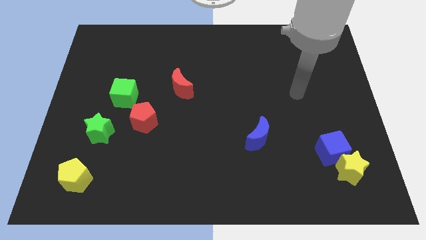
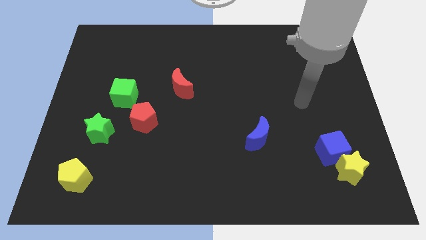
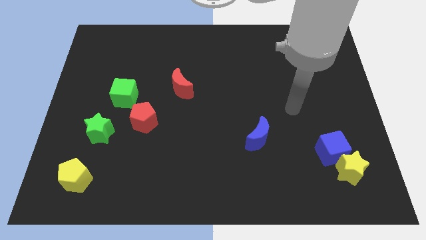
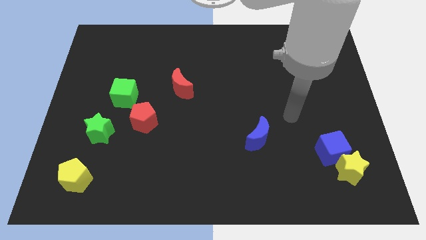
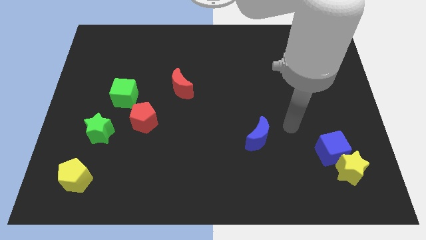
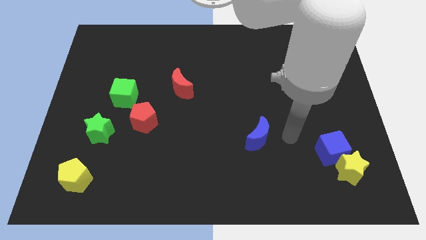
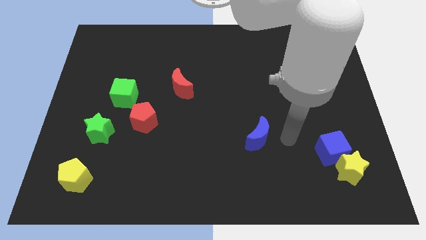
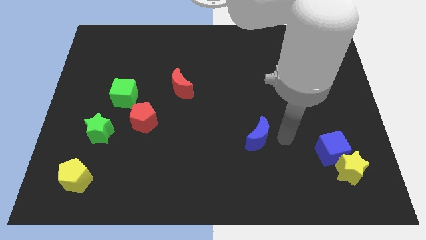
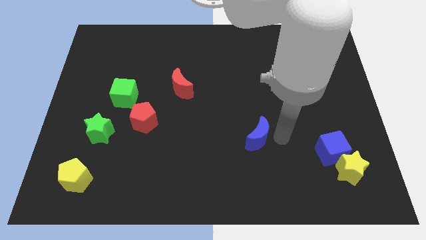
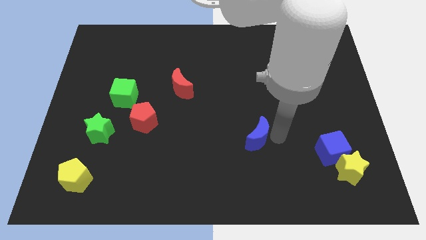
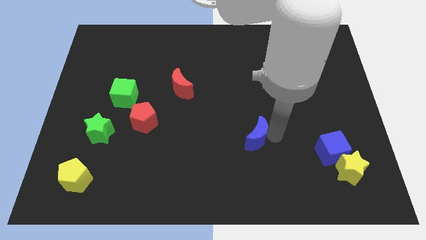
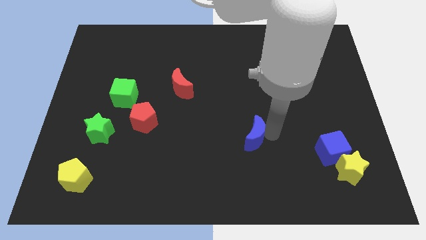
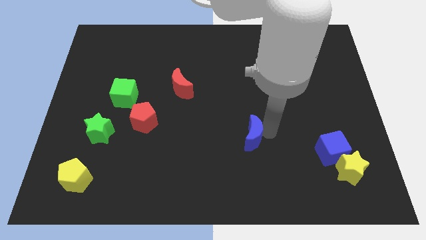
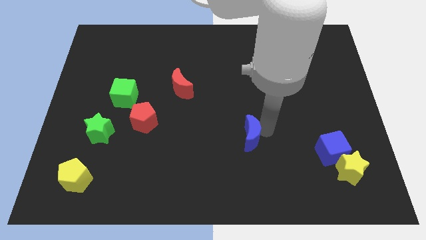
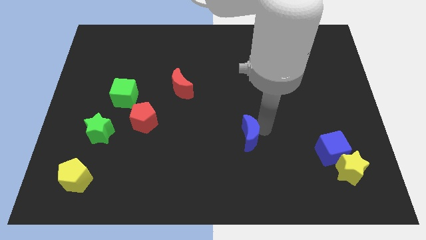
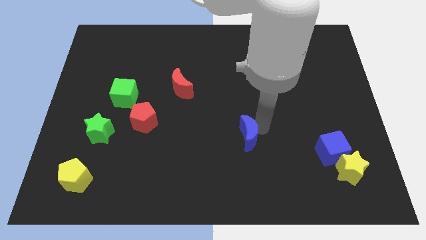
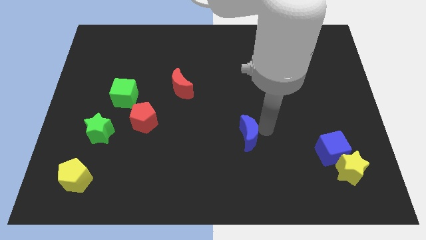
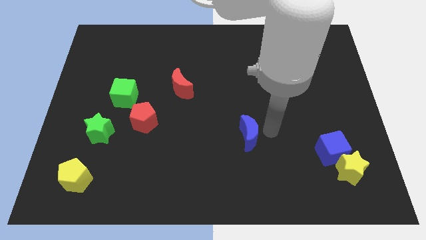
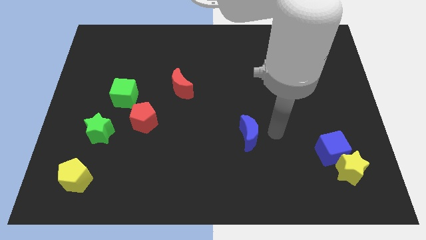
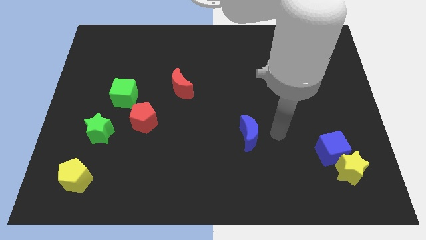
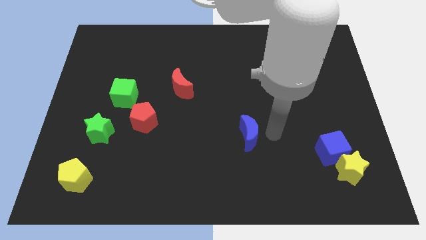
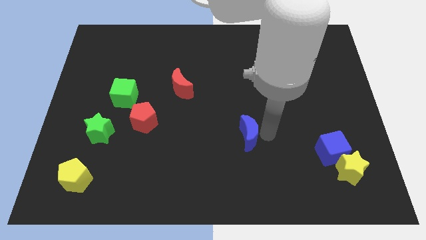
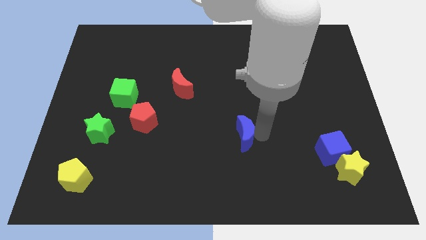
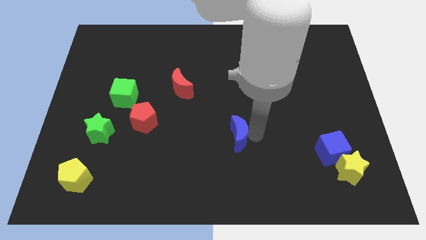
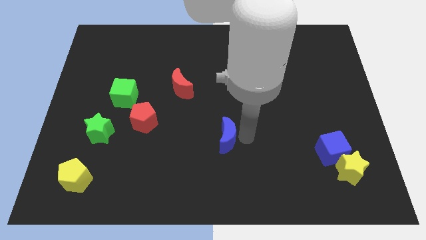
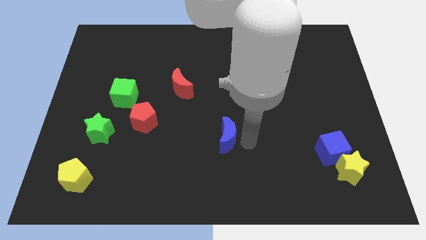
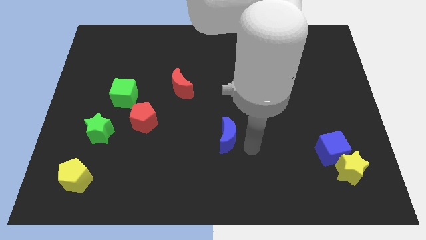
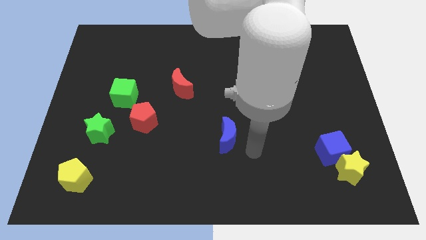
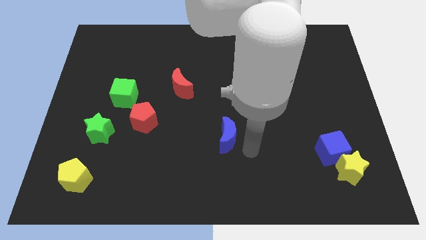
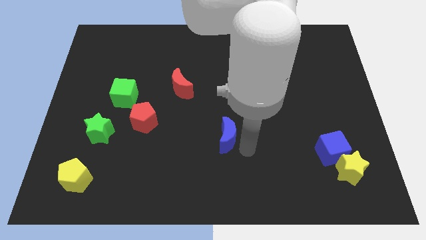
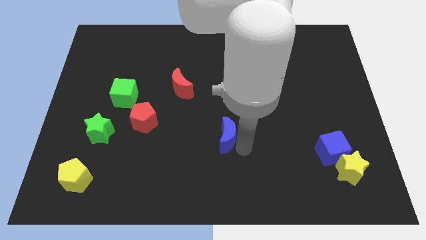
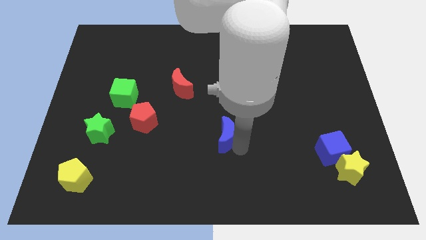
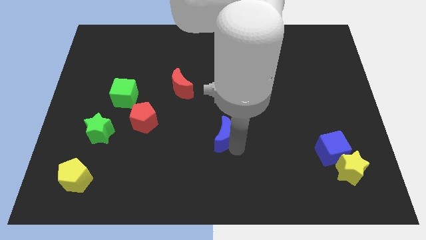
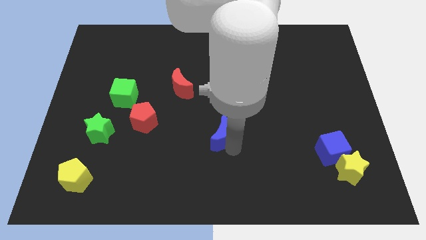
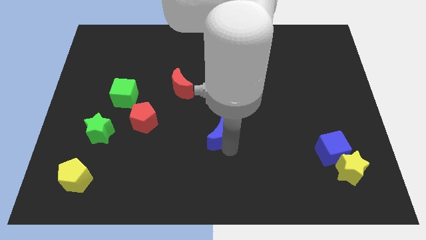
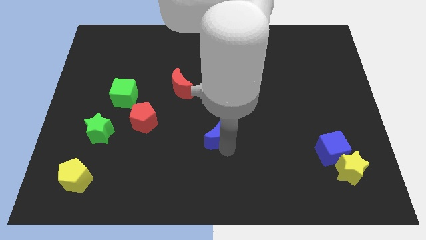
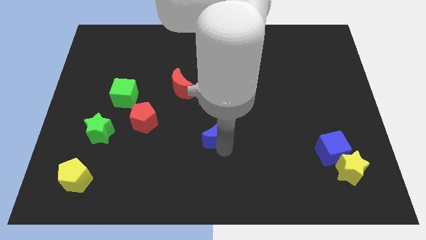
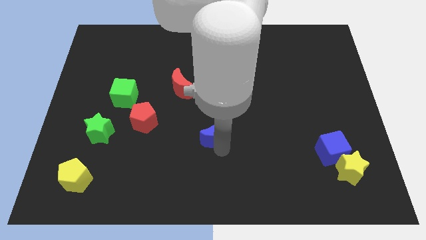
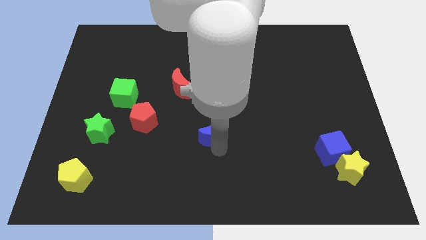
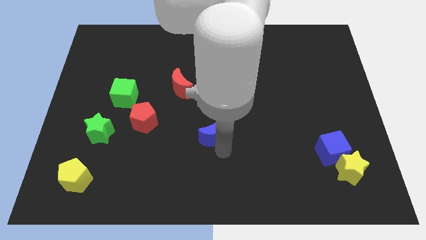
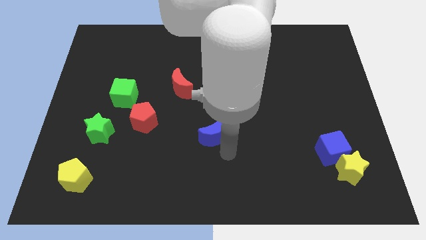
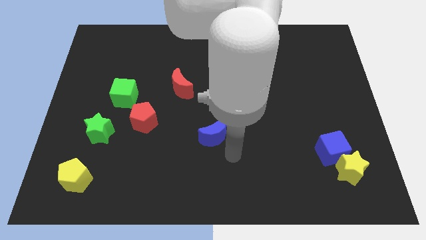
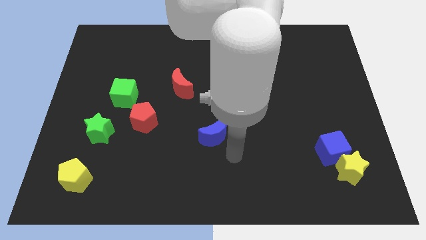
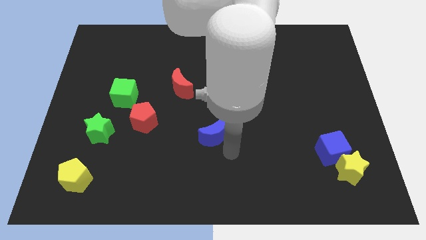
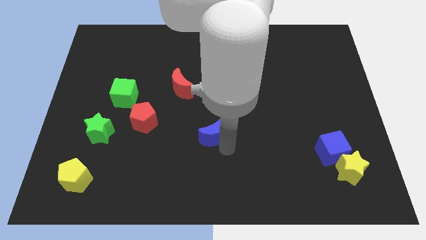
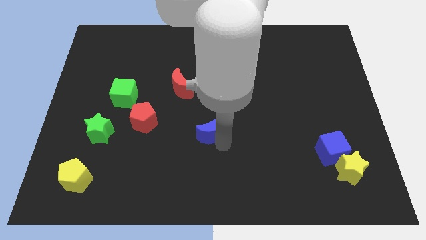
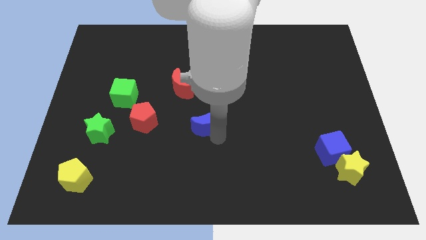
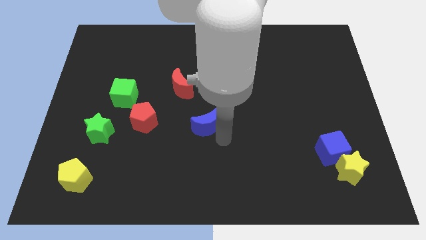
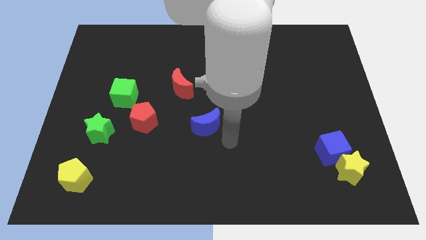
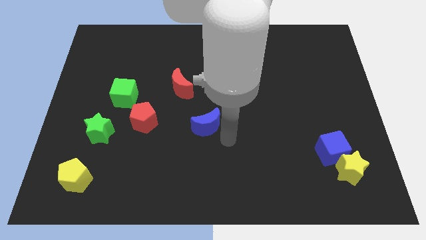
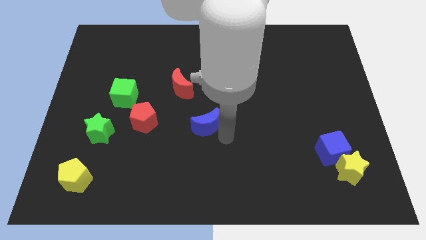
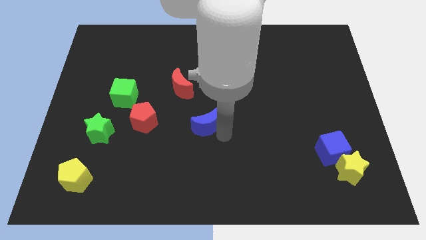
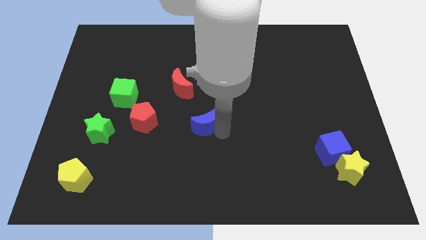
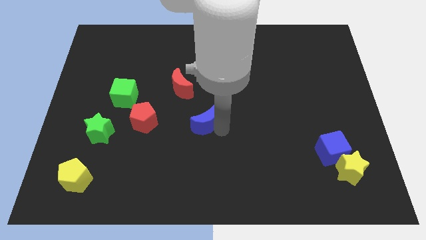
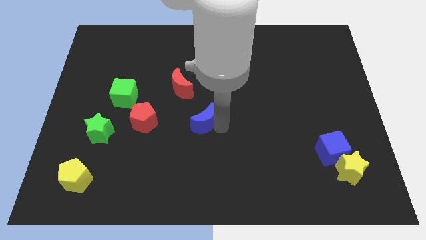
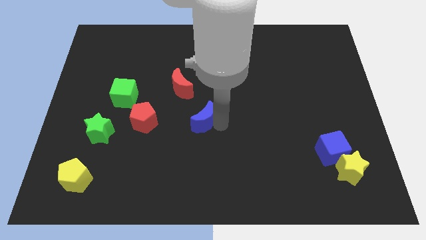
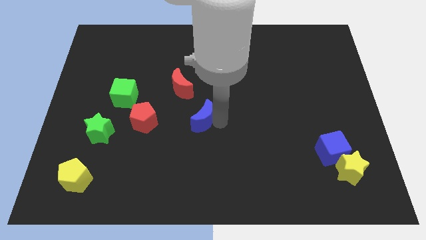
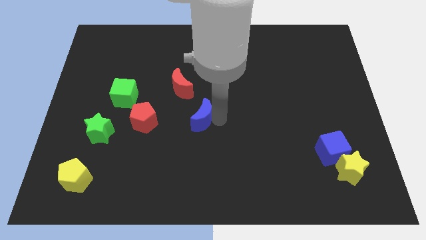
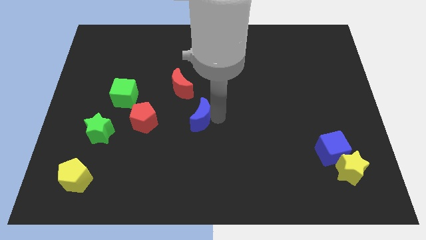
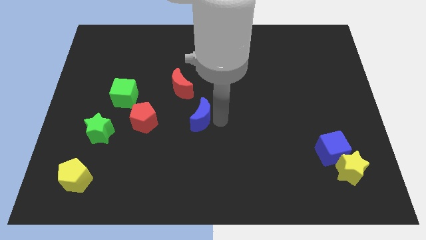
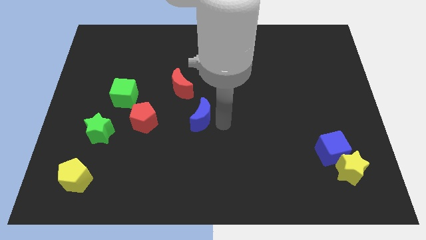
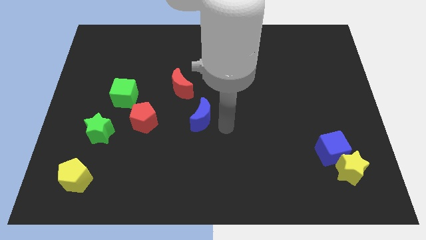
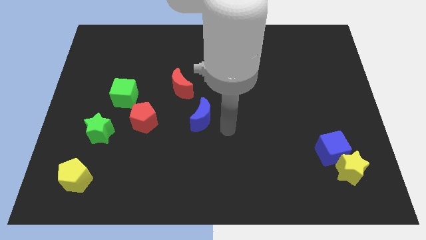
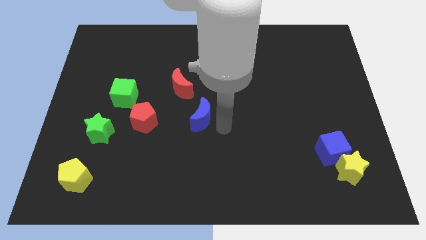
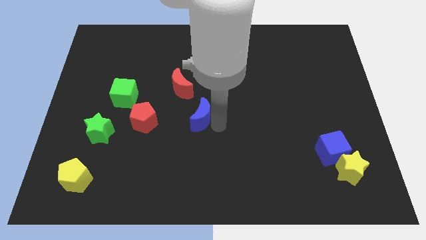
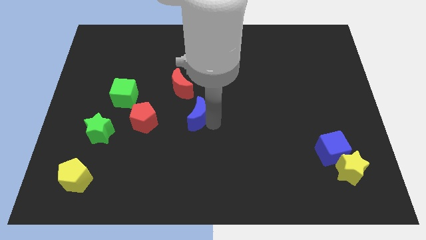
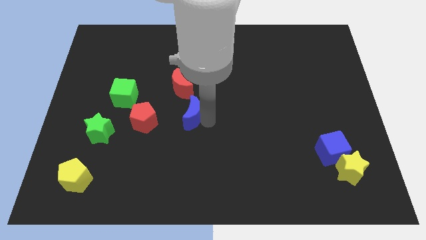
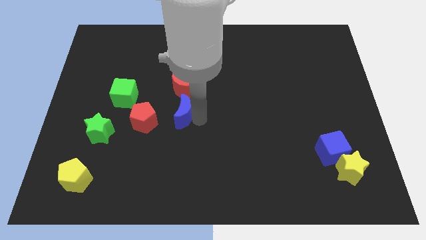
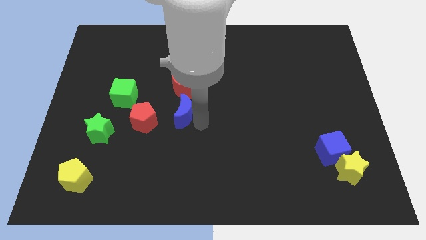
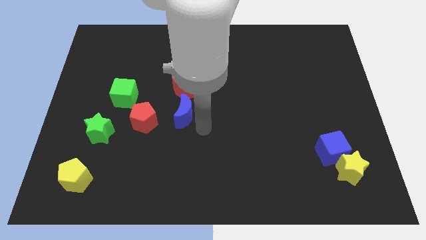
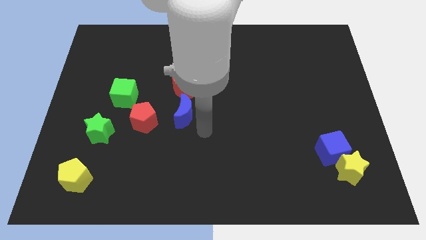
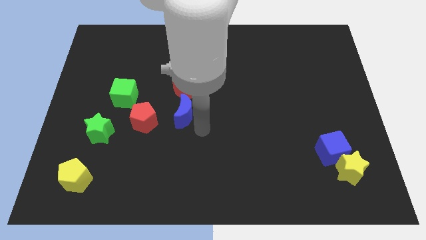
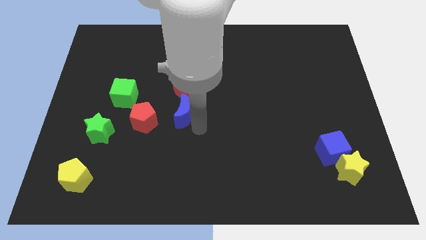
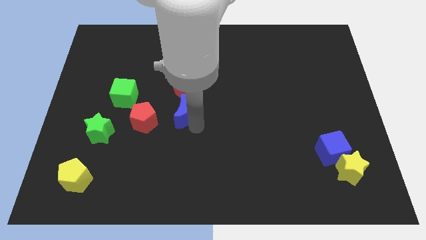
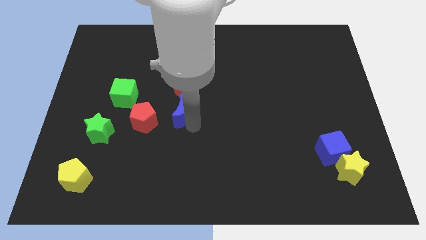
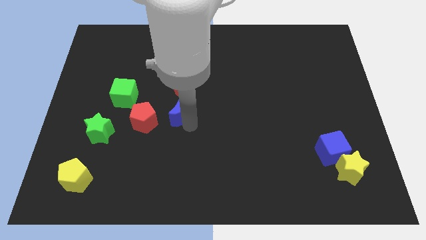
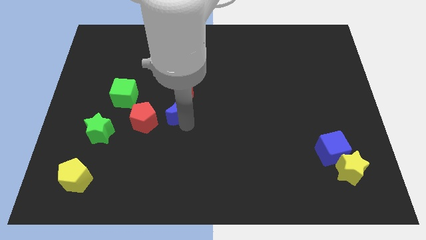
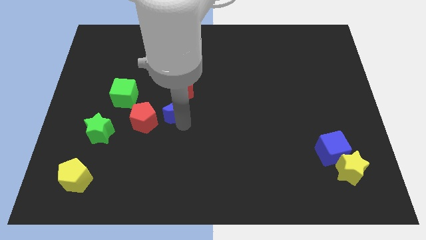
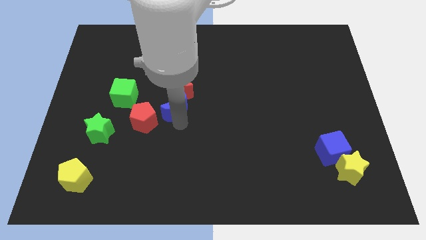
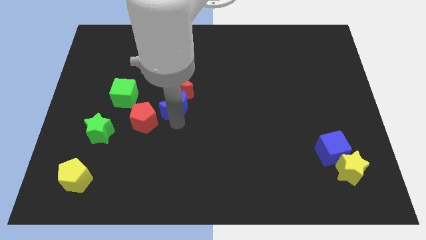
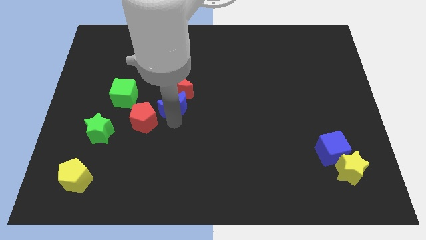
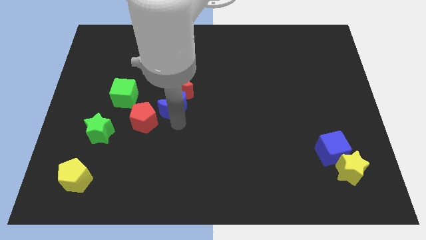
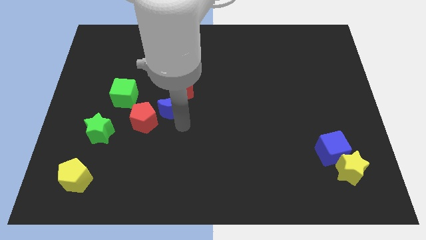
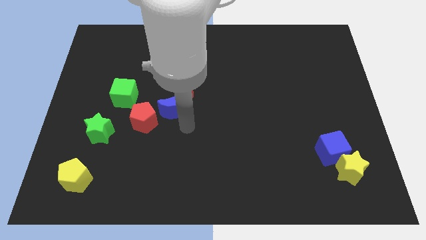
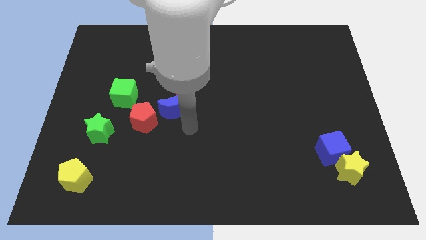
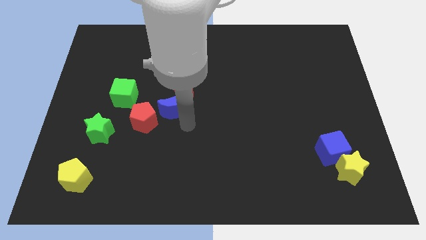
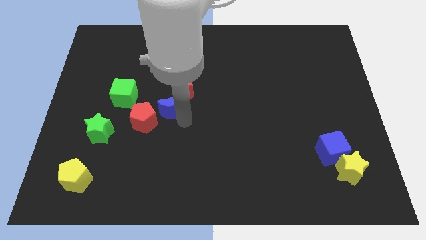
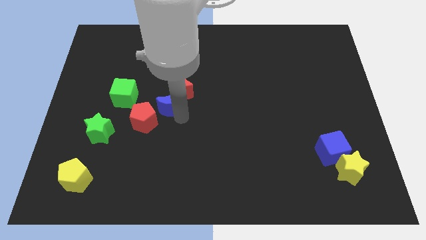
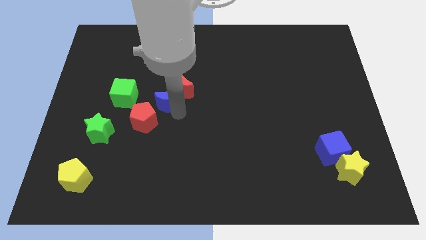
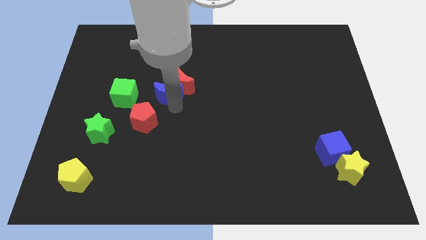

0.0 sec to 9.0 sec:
push the blue moon above the red pentagon
